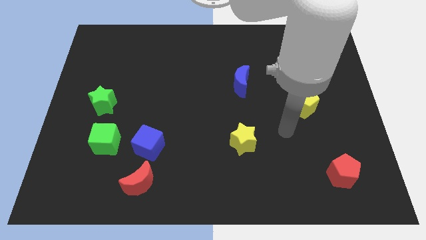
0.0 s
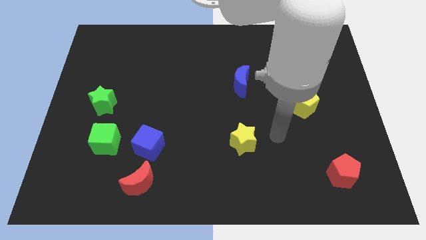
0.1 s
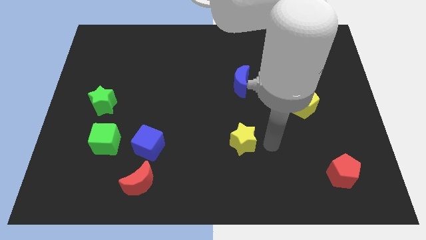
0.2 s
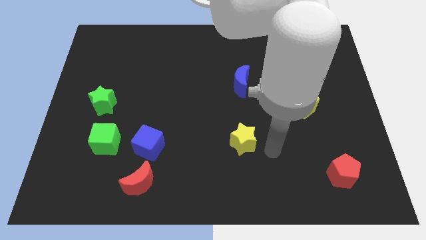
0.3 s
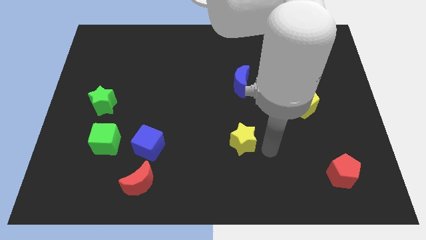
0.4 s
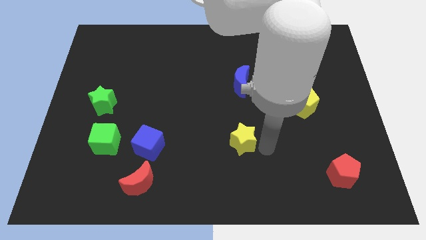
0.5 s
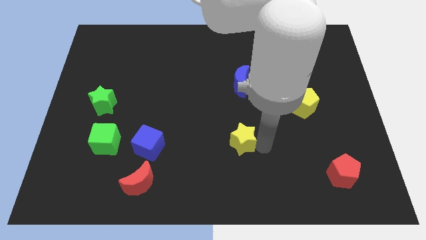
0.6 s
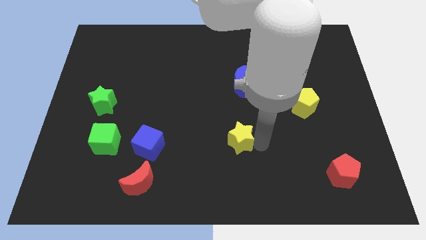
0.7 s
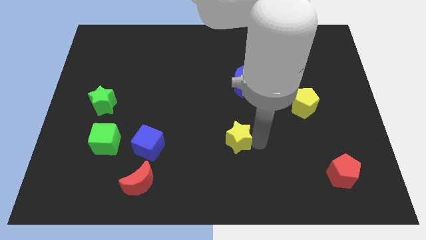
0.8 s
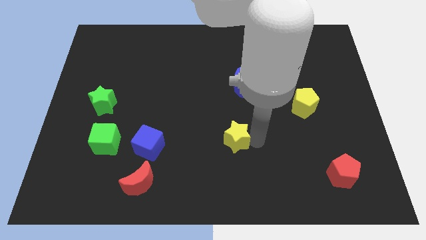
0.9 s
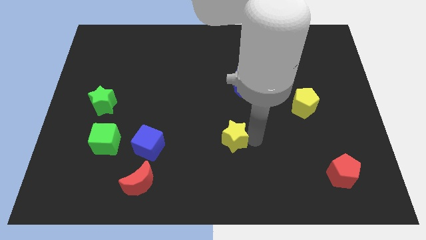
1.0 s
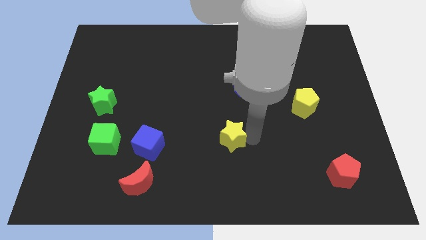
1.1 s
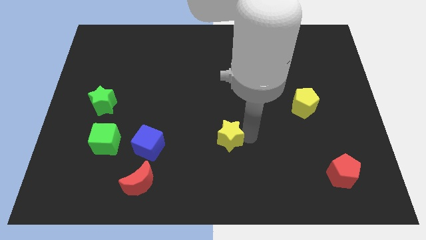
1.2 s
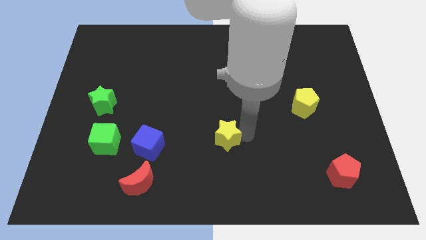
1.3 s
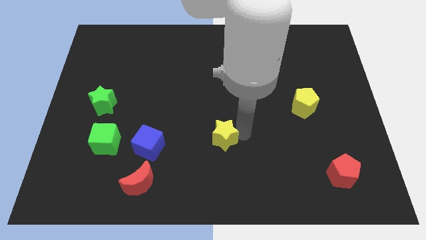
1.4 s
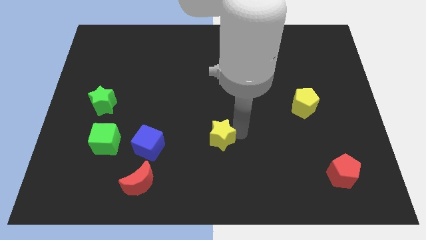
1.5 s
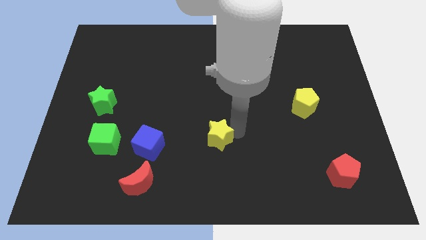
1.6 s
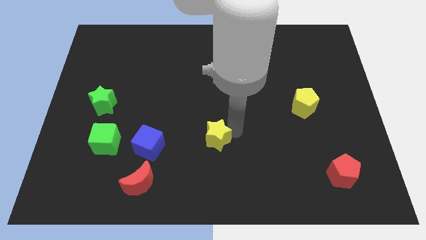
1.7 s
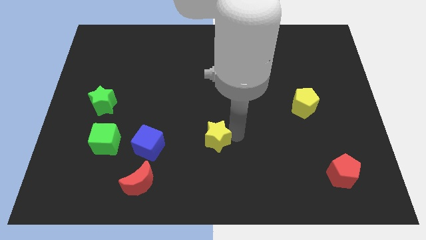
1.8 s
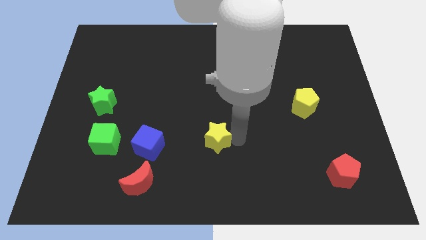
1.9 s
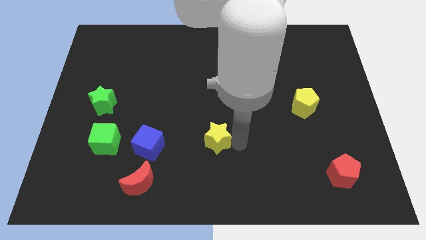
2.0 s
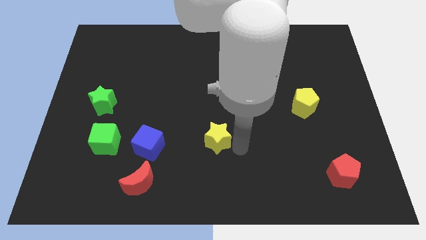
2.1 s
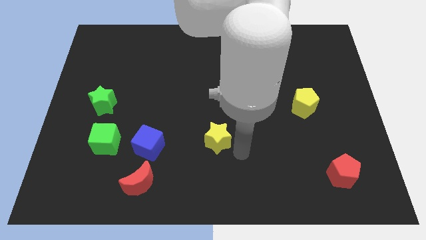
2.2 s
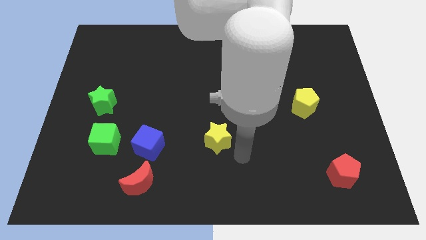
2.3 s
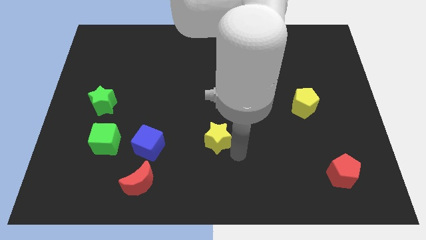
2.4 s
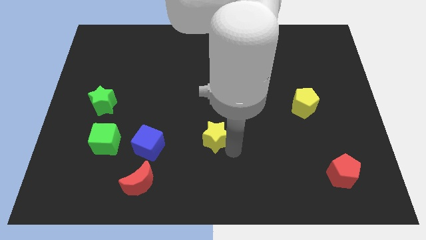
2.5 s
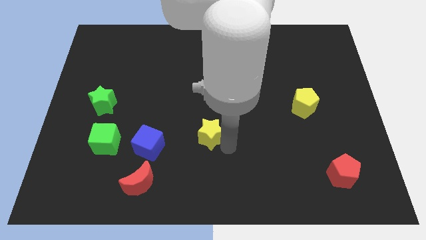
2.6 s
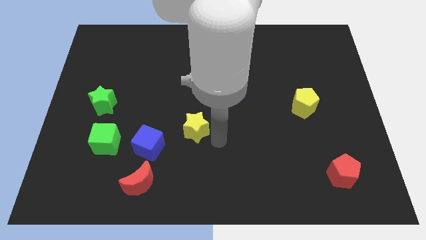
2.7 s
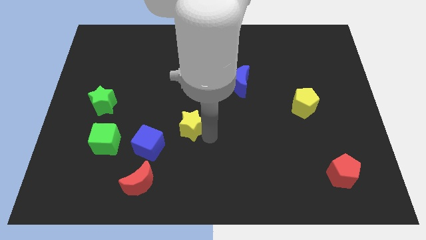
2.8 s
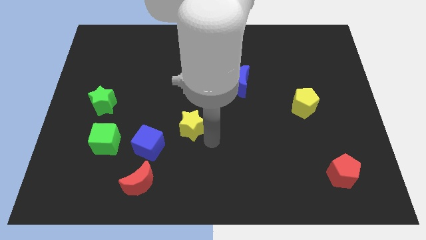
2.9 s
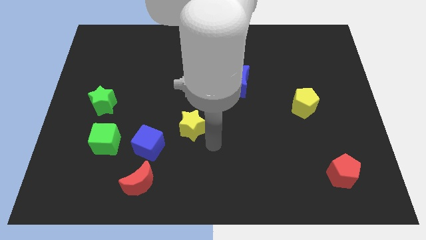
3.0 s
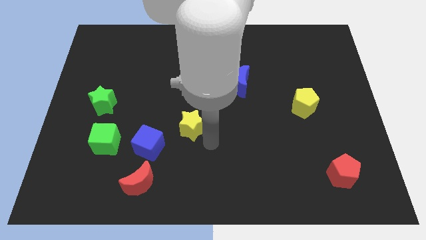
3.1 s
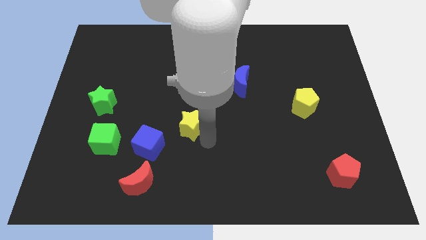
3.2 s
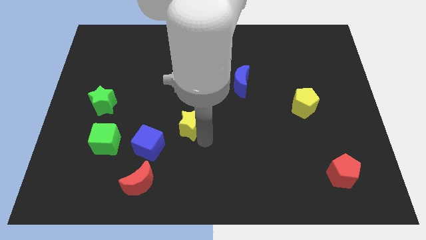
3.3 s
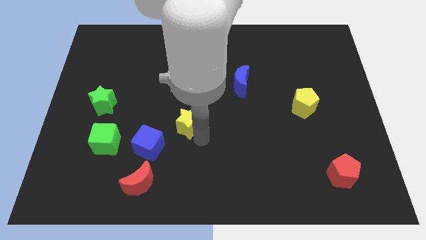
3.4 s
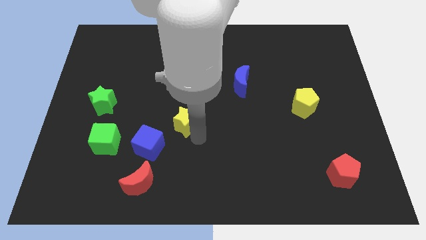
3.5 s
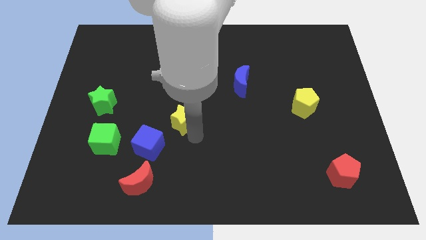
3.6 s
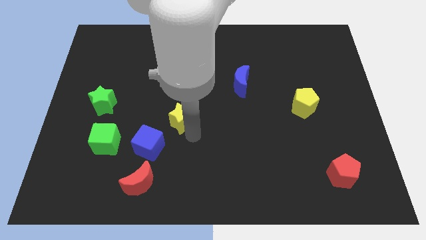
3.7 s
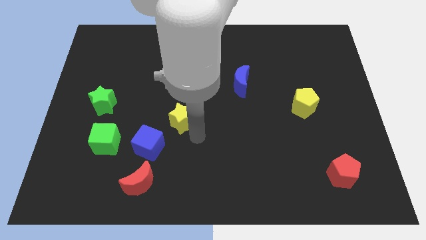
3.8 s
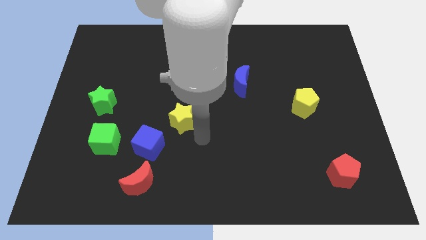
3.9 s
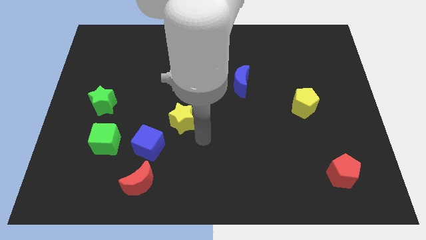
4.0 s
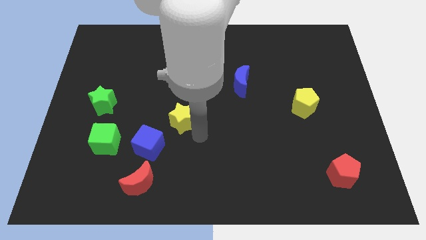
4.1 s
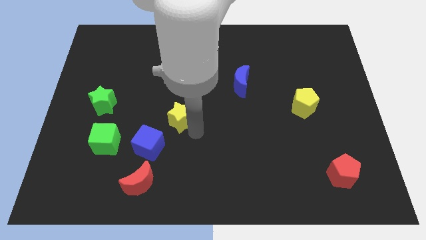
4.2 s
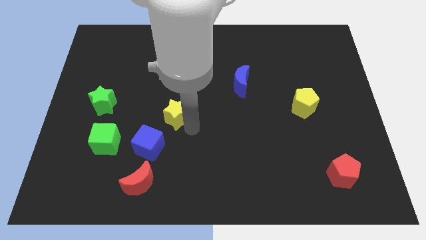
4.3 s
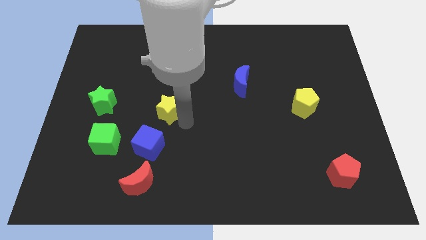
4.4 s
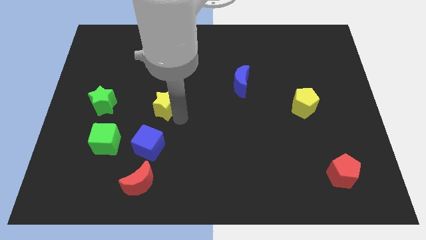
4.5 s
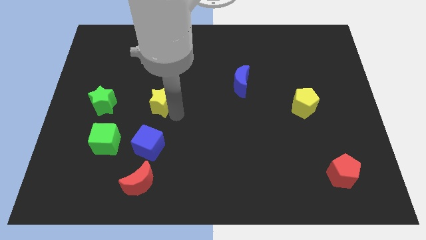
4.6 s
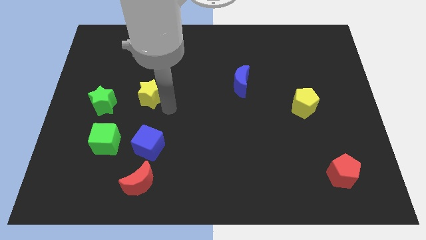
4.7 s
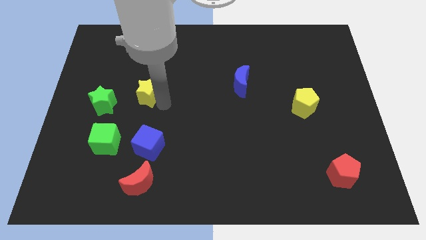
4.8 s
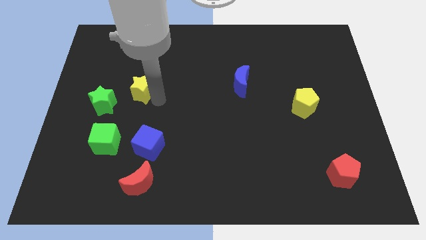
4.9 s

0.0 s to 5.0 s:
put the yellow star to the top right of the green star

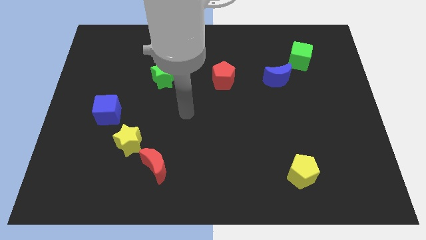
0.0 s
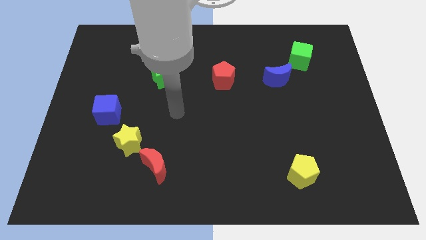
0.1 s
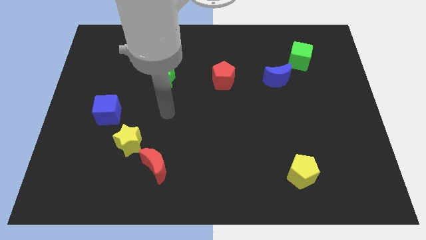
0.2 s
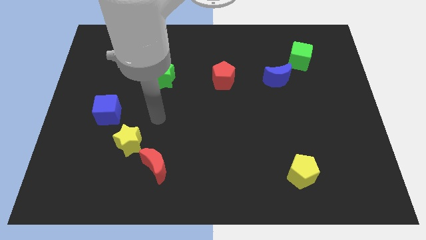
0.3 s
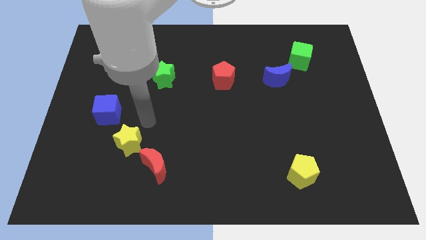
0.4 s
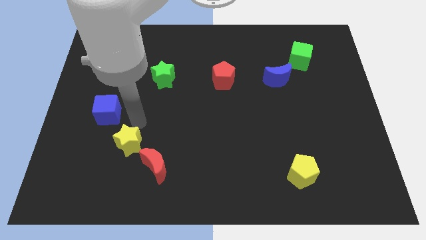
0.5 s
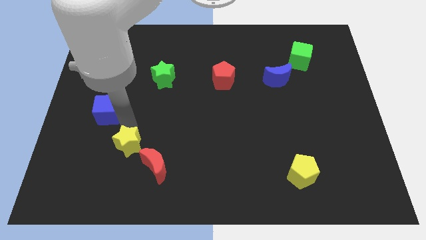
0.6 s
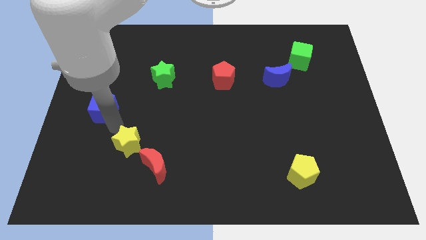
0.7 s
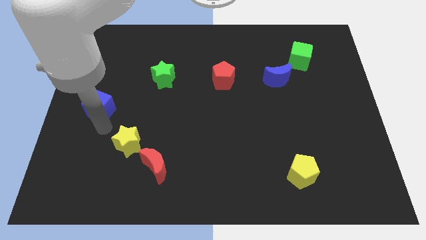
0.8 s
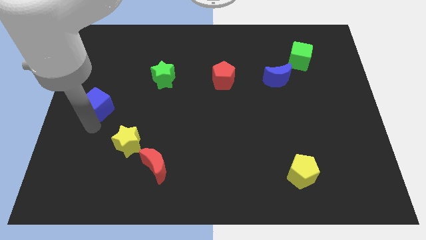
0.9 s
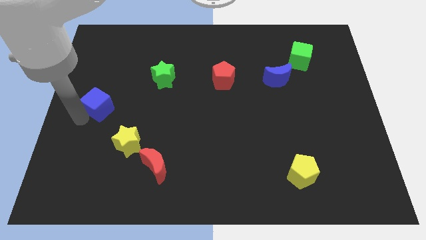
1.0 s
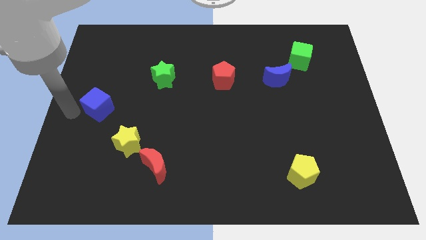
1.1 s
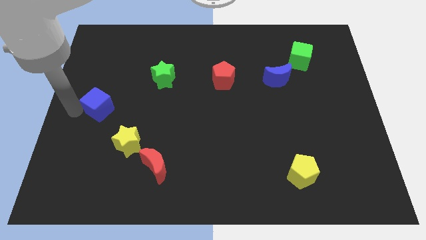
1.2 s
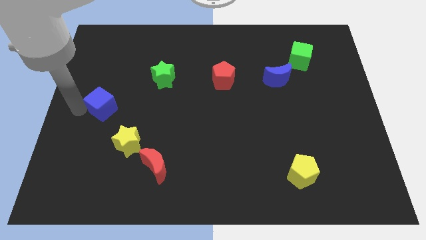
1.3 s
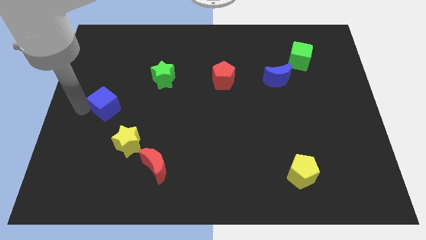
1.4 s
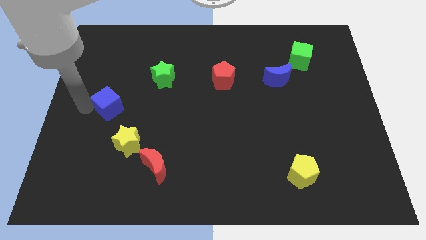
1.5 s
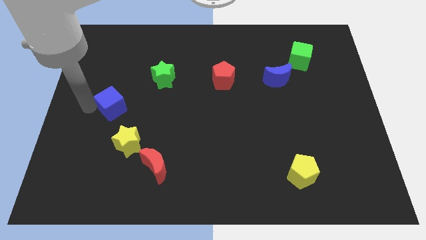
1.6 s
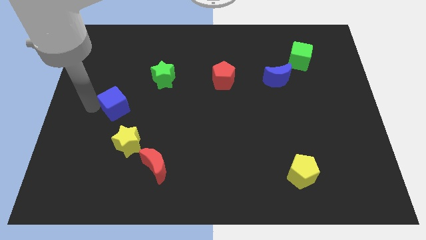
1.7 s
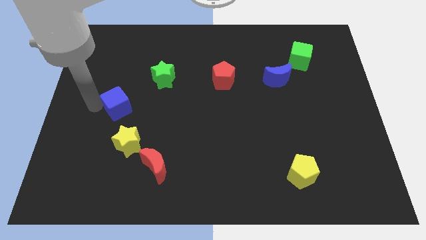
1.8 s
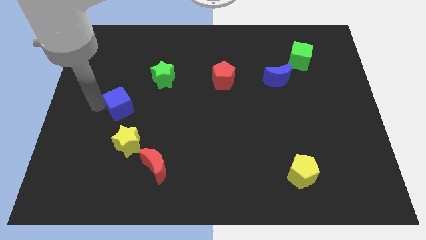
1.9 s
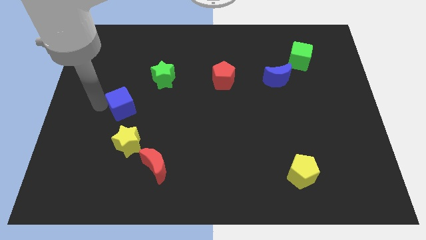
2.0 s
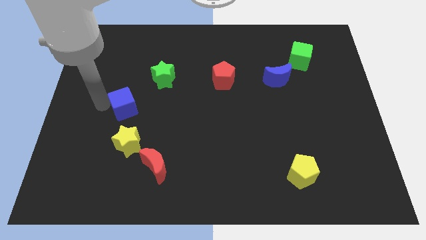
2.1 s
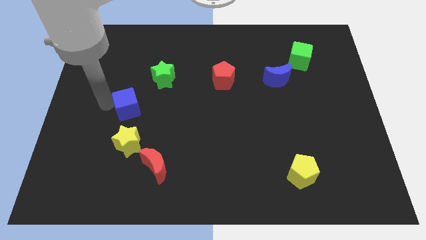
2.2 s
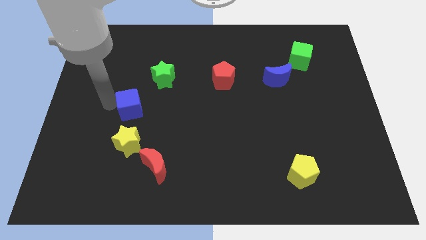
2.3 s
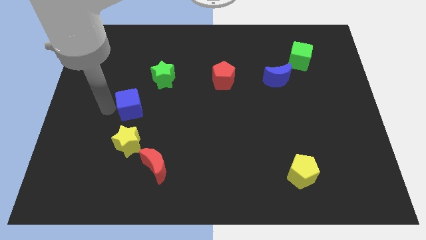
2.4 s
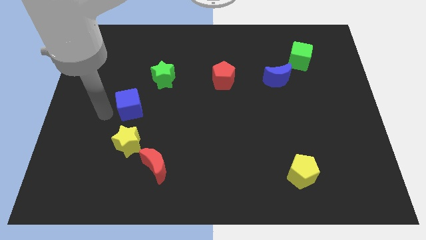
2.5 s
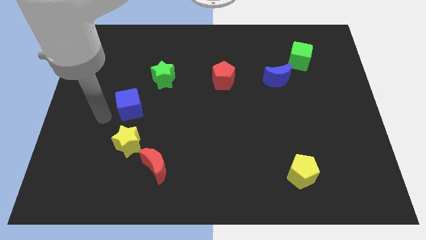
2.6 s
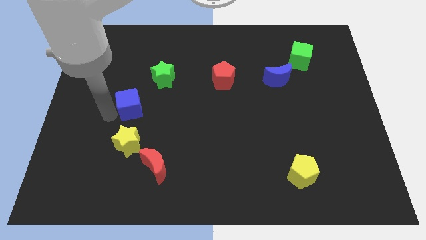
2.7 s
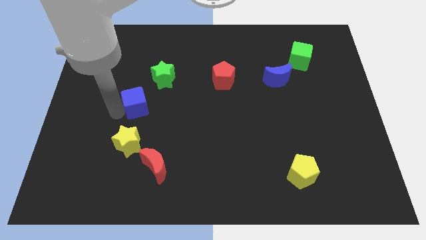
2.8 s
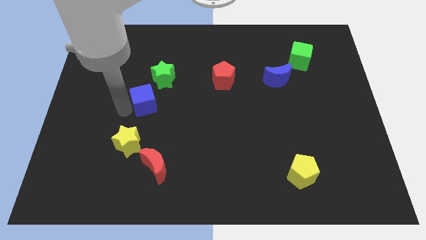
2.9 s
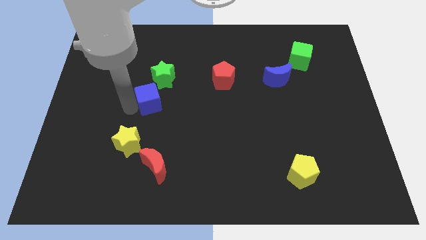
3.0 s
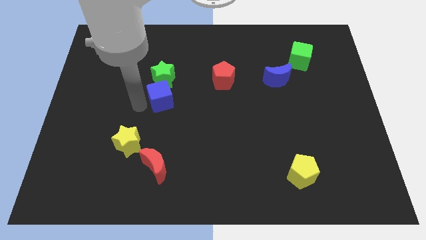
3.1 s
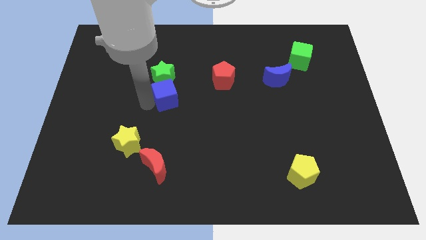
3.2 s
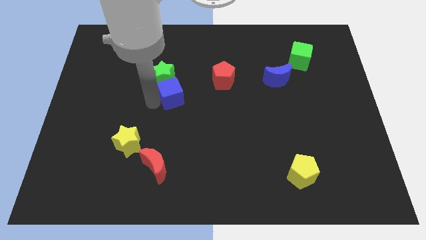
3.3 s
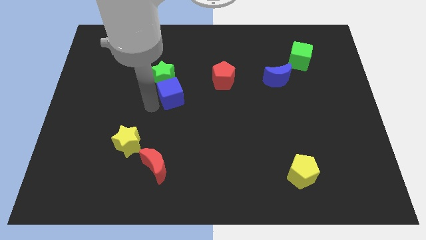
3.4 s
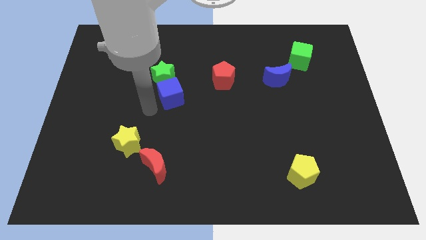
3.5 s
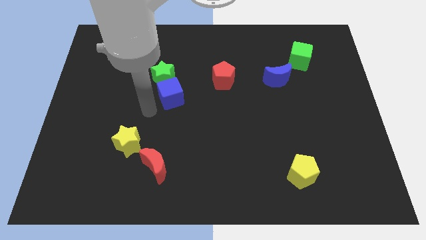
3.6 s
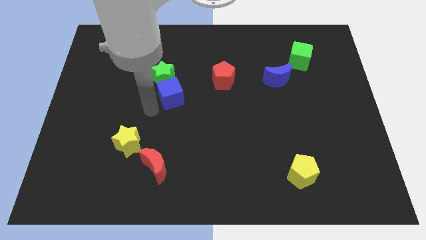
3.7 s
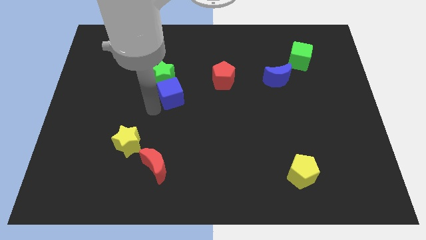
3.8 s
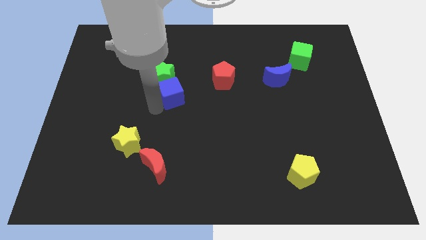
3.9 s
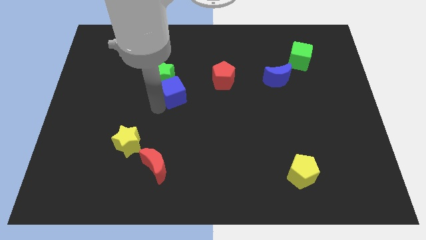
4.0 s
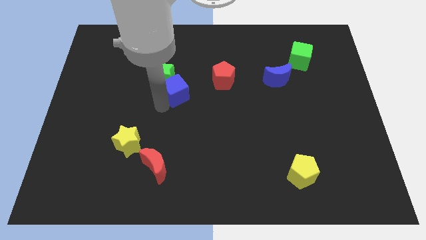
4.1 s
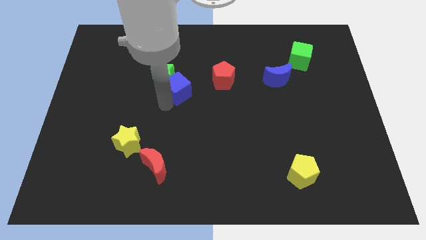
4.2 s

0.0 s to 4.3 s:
push the blue cube just right of the green star
